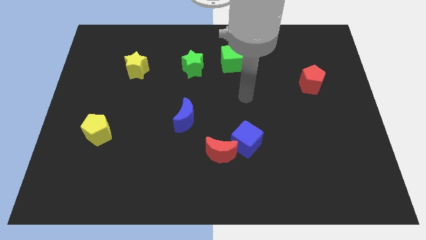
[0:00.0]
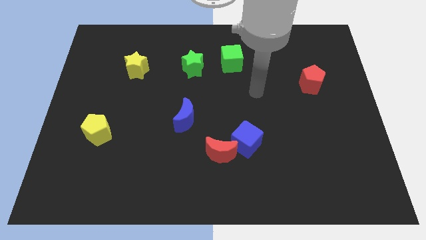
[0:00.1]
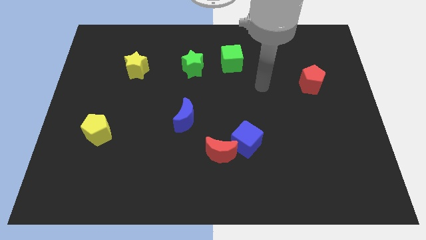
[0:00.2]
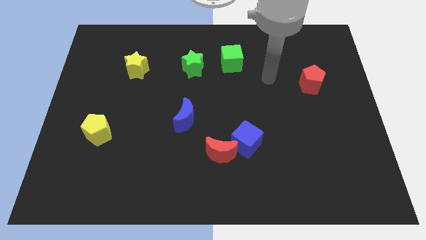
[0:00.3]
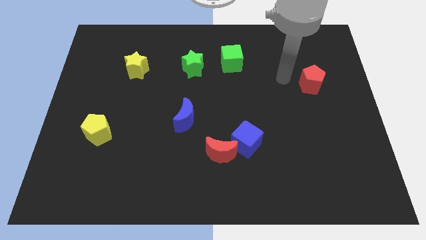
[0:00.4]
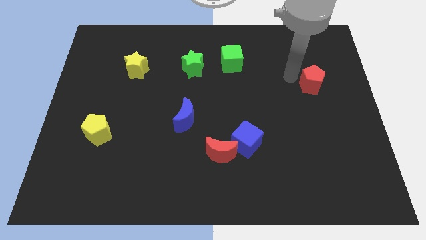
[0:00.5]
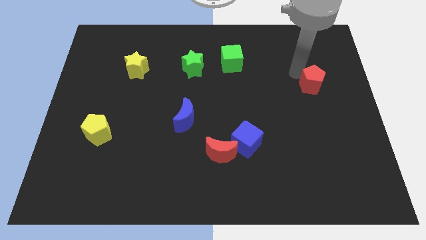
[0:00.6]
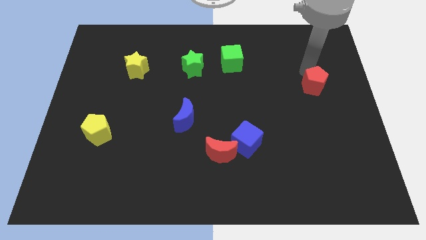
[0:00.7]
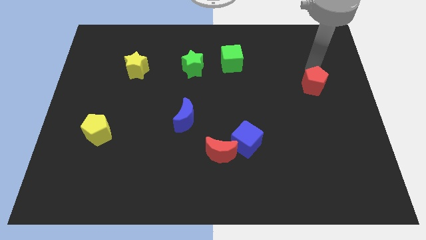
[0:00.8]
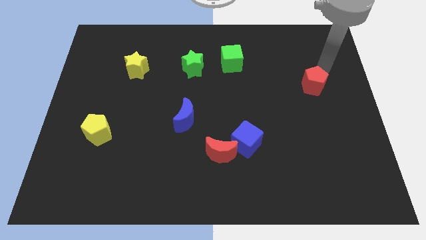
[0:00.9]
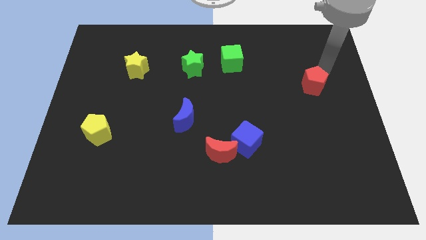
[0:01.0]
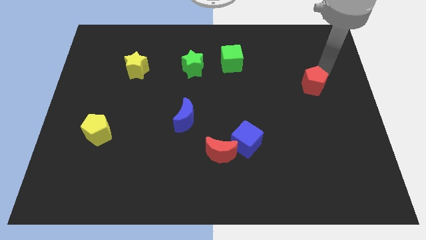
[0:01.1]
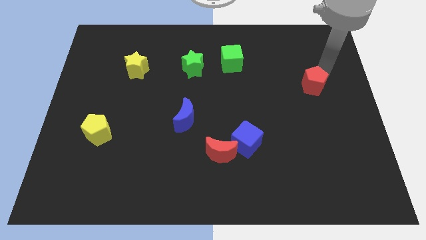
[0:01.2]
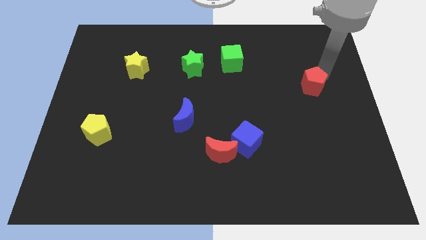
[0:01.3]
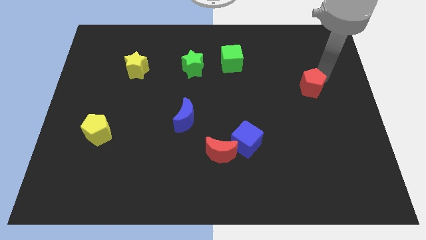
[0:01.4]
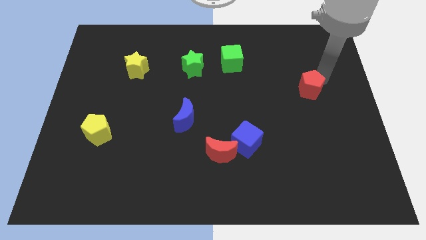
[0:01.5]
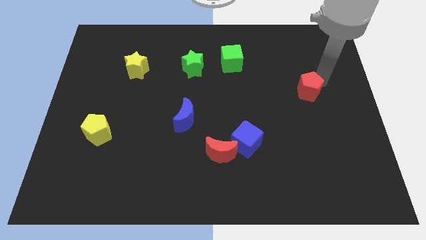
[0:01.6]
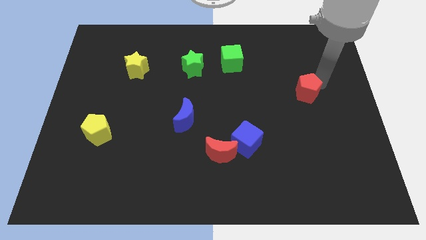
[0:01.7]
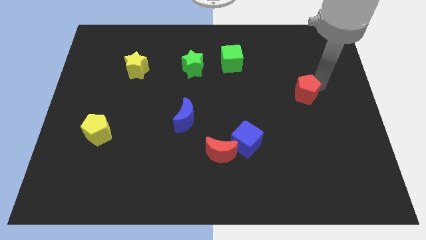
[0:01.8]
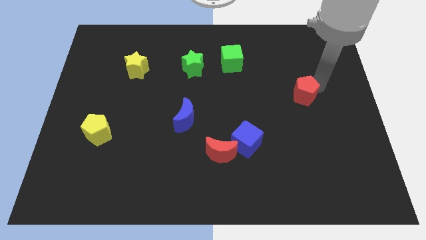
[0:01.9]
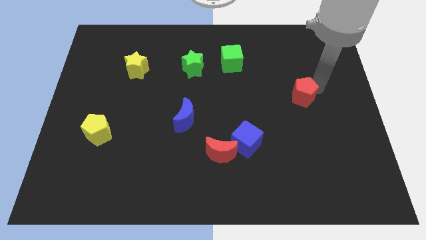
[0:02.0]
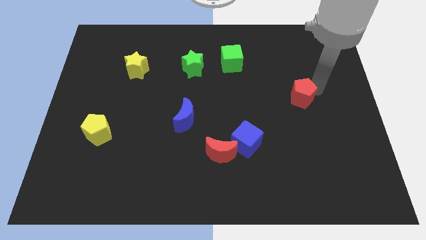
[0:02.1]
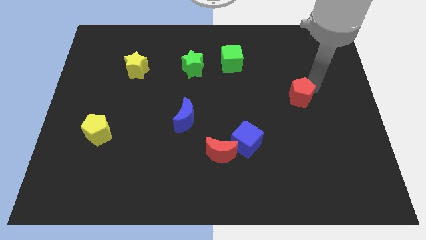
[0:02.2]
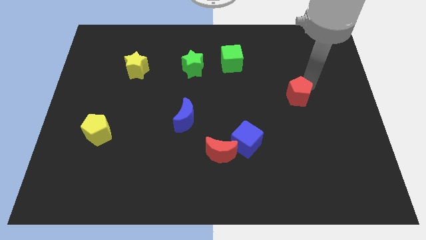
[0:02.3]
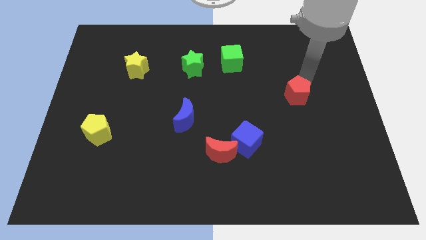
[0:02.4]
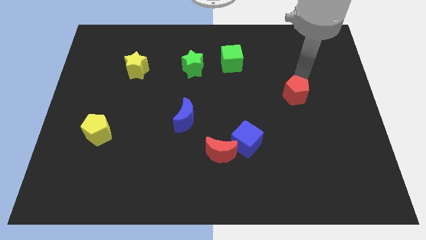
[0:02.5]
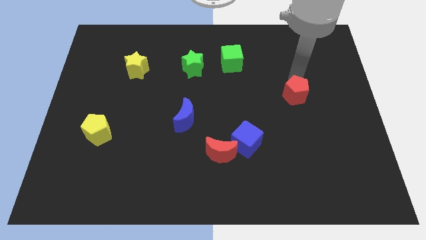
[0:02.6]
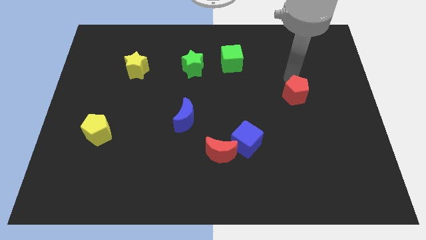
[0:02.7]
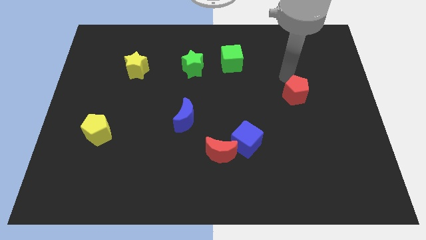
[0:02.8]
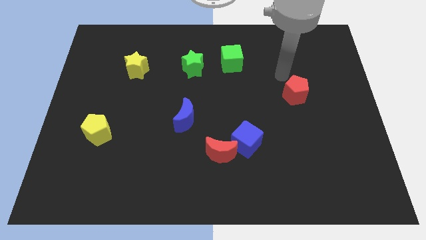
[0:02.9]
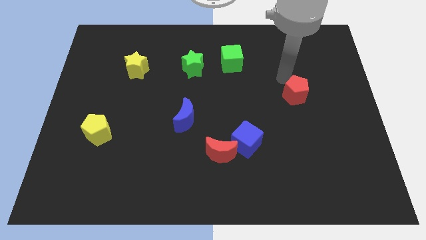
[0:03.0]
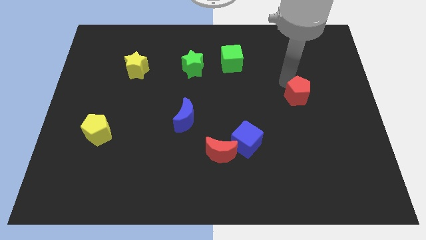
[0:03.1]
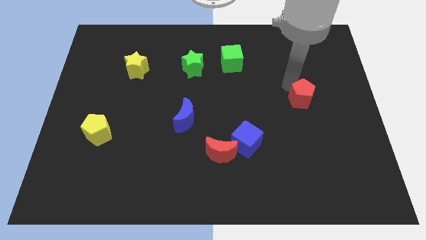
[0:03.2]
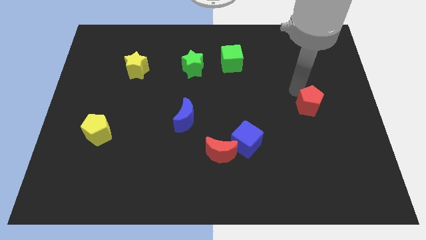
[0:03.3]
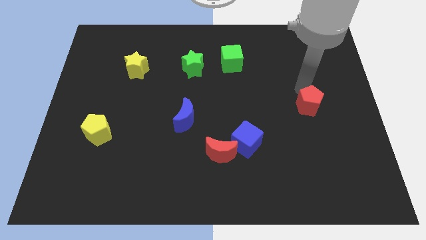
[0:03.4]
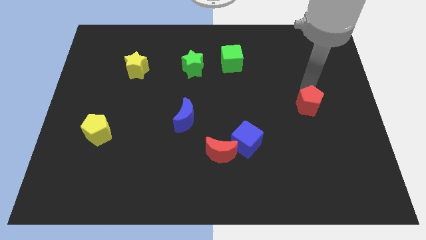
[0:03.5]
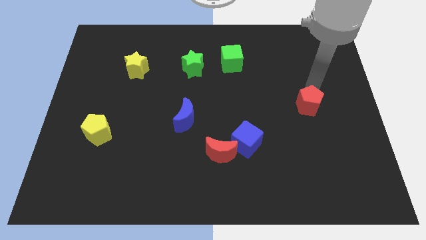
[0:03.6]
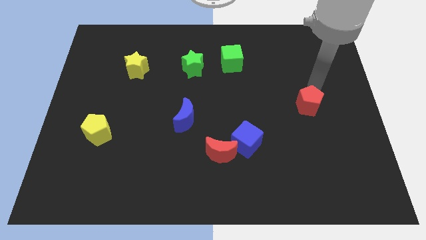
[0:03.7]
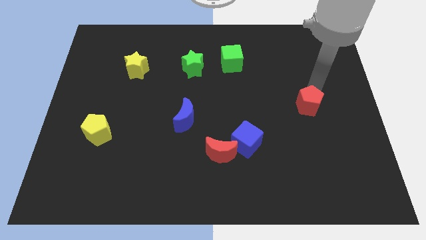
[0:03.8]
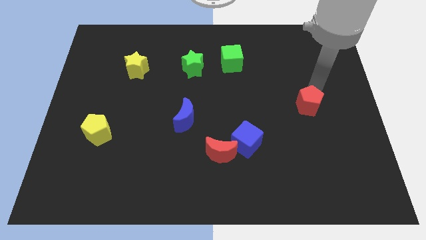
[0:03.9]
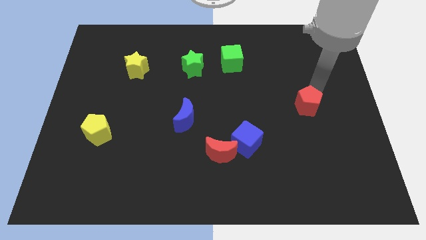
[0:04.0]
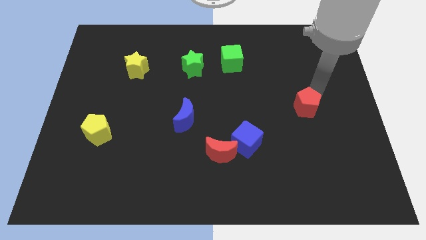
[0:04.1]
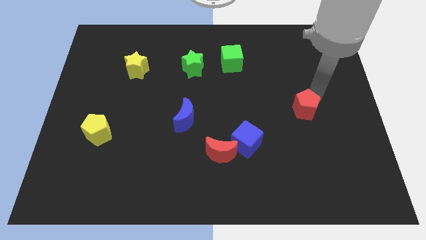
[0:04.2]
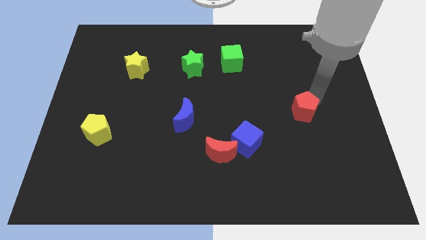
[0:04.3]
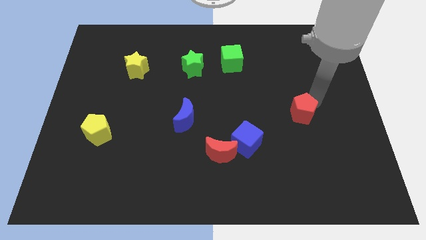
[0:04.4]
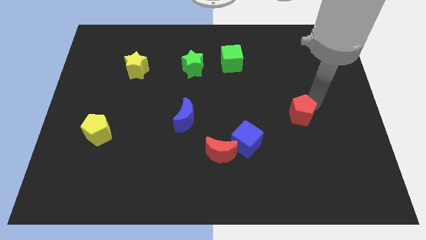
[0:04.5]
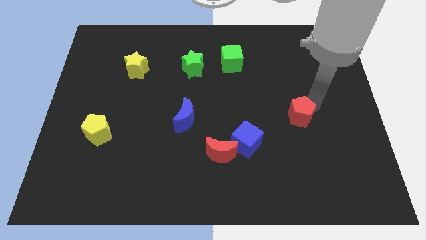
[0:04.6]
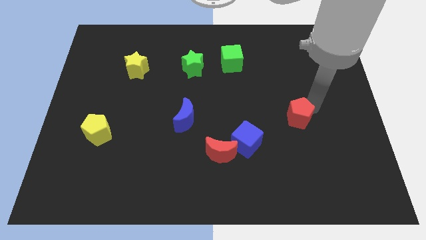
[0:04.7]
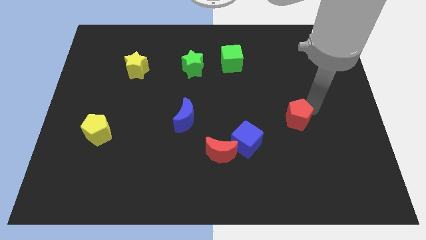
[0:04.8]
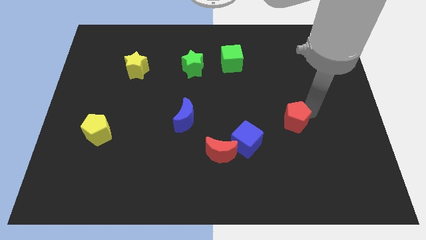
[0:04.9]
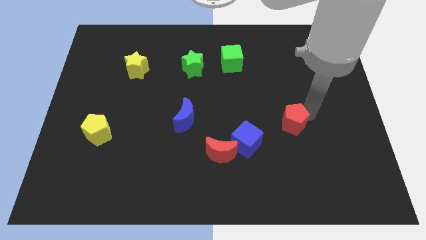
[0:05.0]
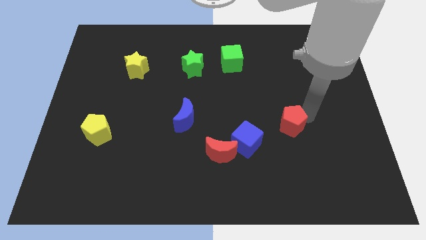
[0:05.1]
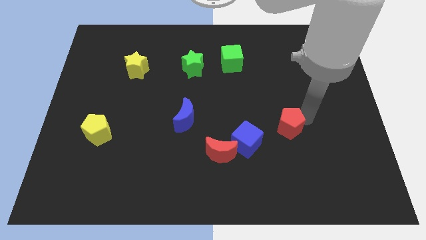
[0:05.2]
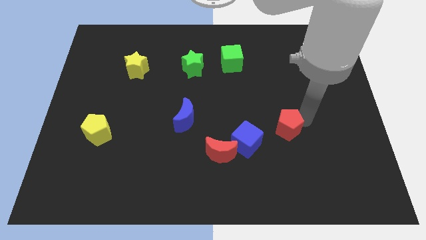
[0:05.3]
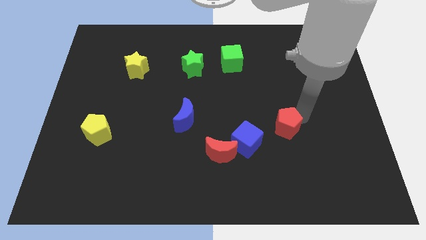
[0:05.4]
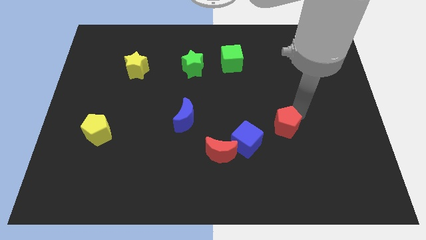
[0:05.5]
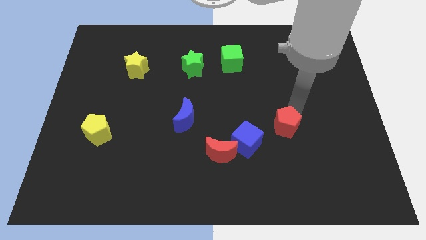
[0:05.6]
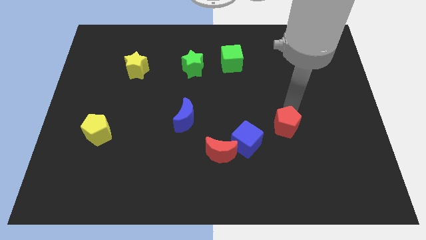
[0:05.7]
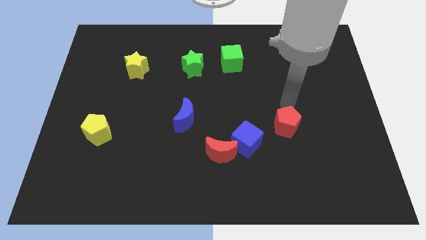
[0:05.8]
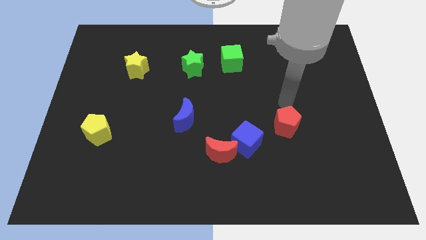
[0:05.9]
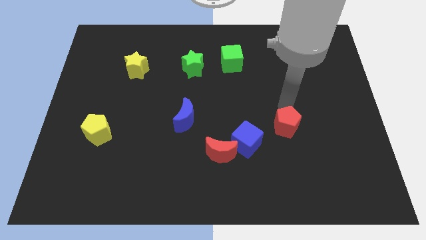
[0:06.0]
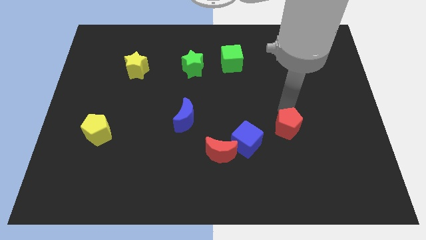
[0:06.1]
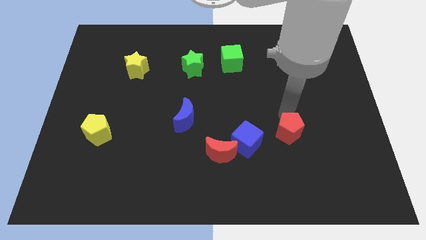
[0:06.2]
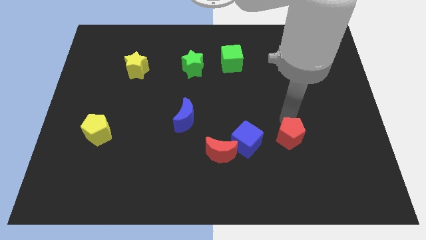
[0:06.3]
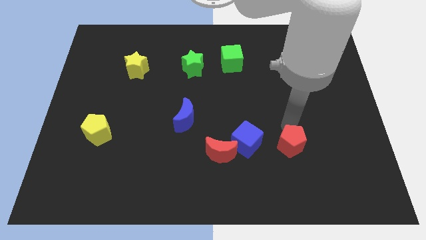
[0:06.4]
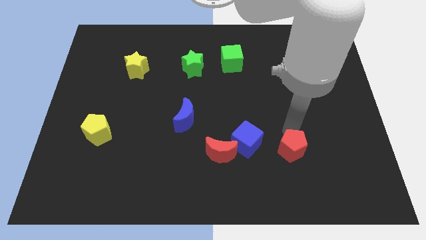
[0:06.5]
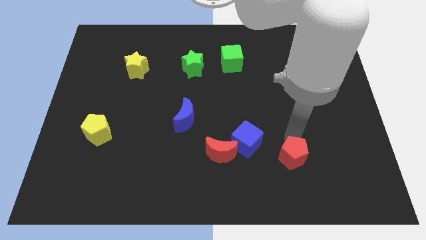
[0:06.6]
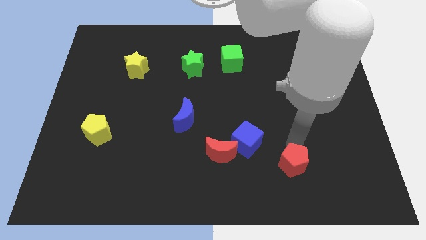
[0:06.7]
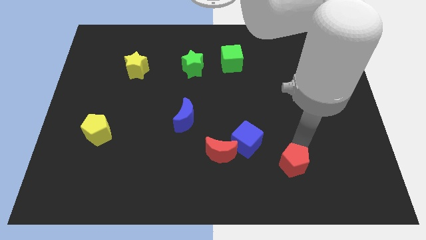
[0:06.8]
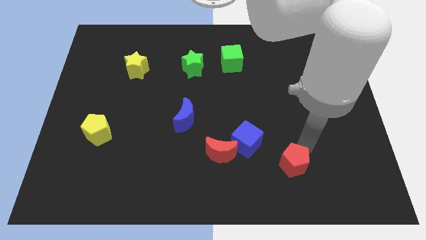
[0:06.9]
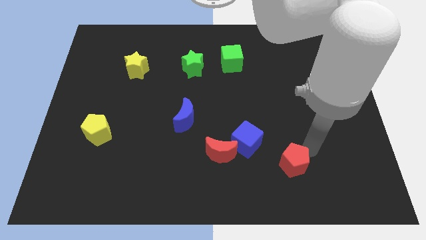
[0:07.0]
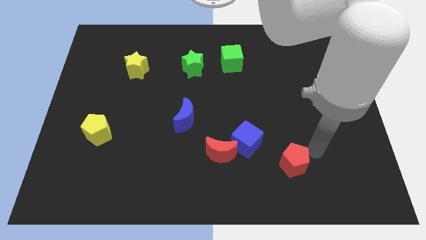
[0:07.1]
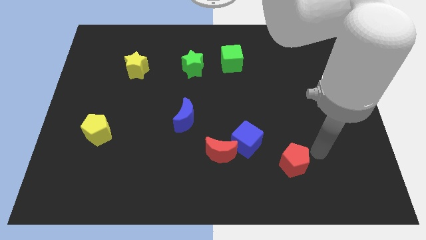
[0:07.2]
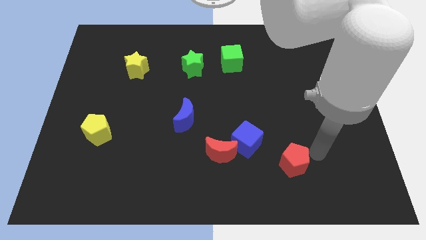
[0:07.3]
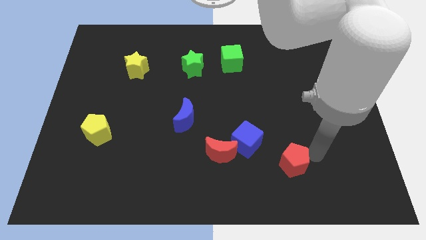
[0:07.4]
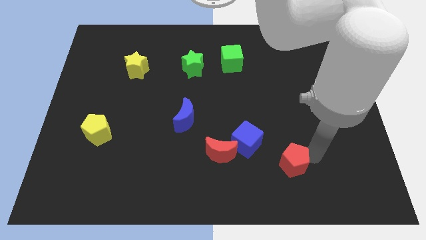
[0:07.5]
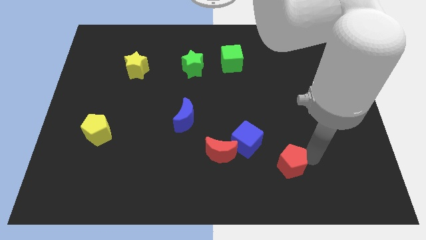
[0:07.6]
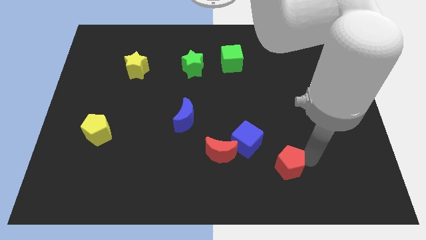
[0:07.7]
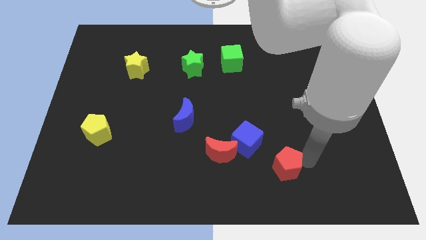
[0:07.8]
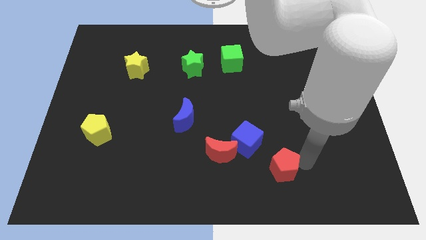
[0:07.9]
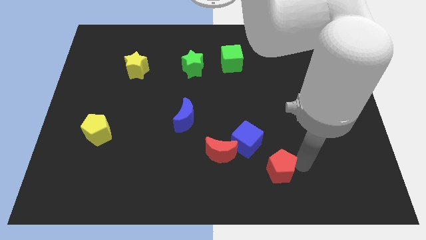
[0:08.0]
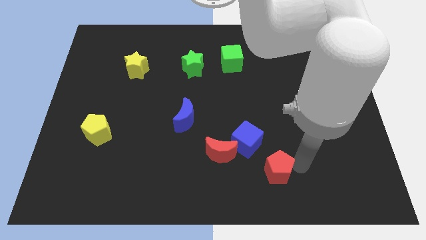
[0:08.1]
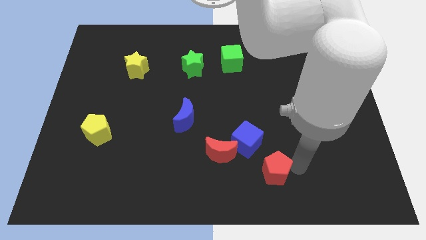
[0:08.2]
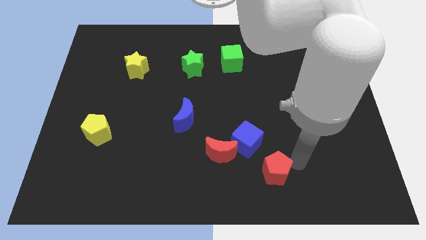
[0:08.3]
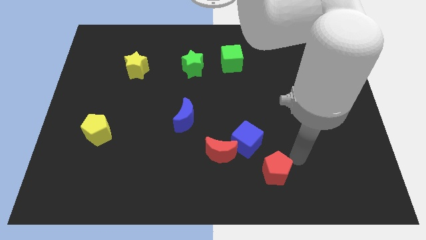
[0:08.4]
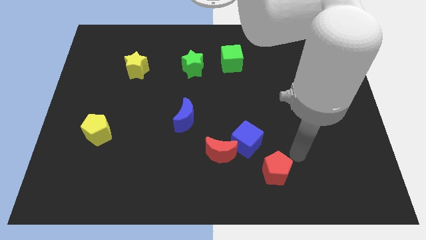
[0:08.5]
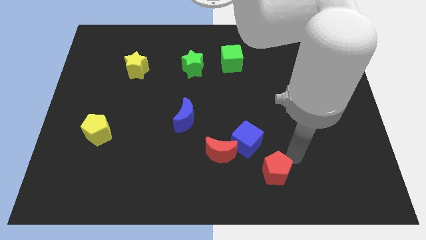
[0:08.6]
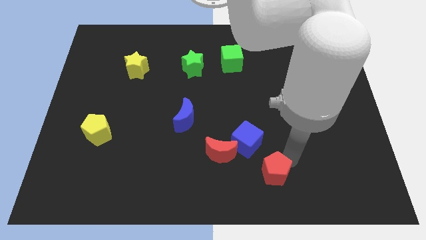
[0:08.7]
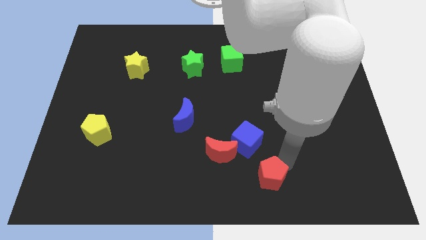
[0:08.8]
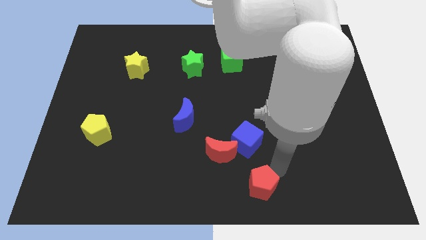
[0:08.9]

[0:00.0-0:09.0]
push the red pentagon to the bottom side
